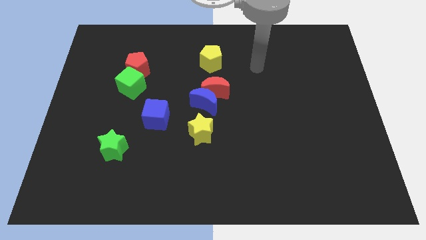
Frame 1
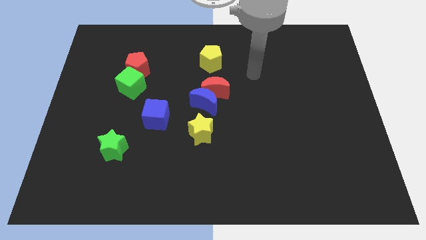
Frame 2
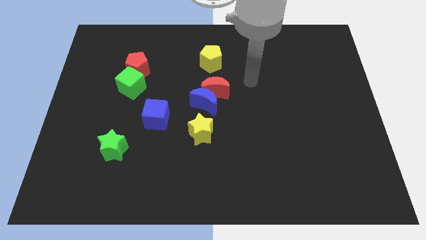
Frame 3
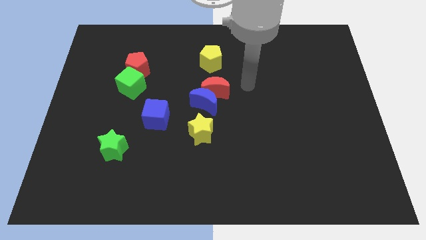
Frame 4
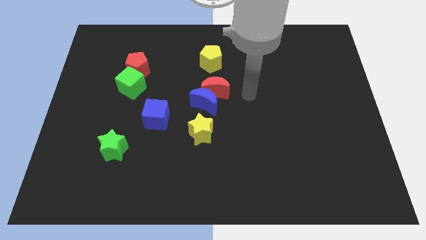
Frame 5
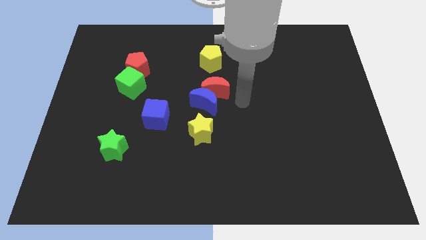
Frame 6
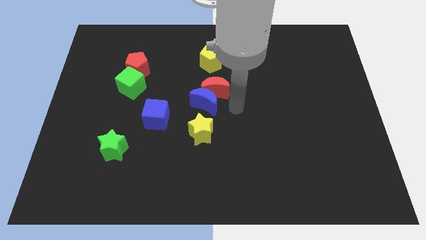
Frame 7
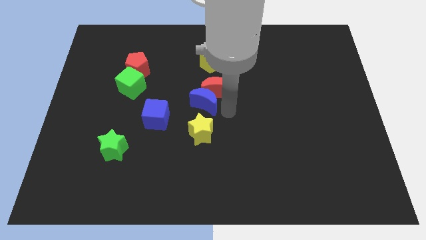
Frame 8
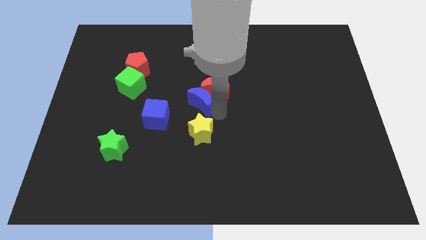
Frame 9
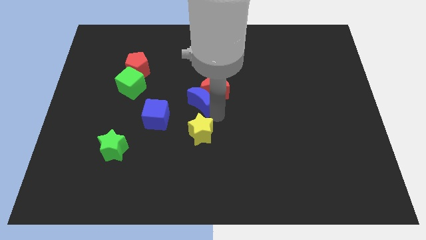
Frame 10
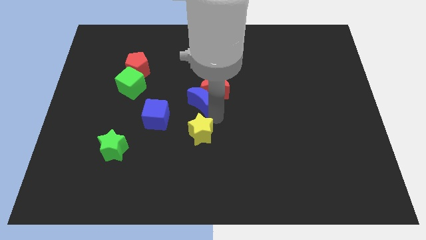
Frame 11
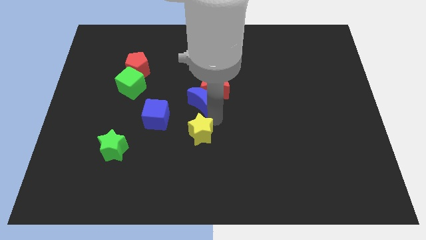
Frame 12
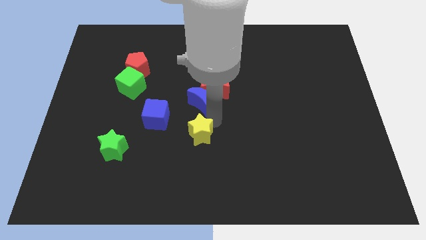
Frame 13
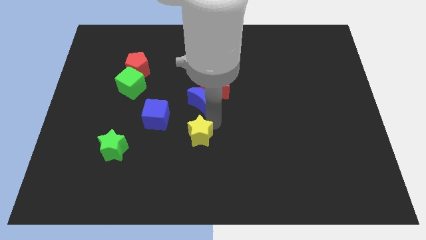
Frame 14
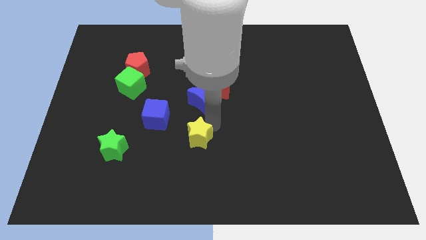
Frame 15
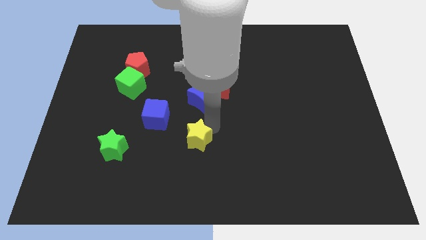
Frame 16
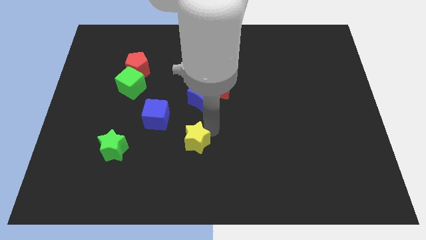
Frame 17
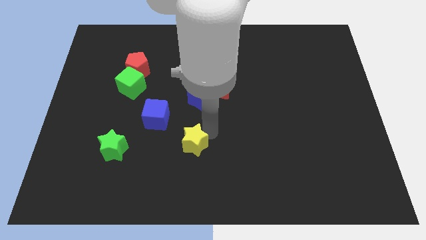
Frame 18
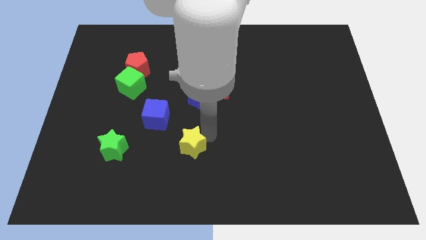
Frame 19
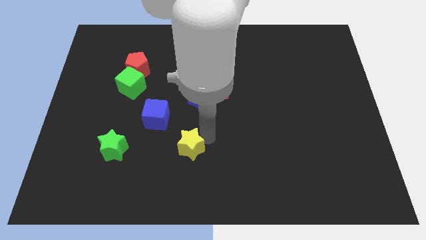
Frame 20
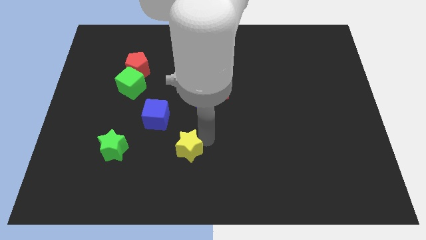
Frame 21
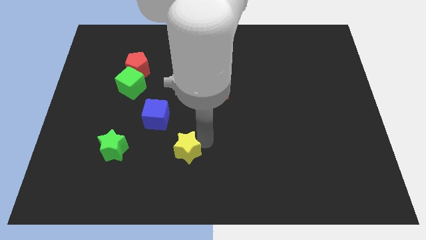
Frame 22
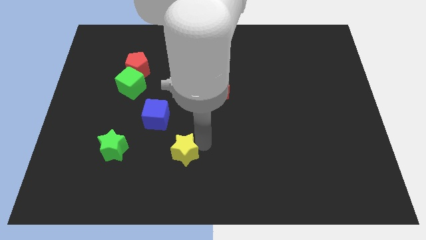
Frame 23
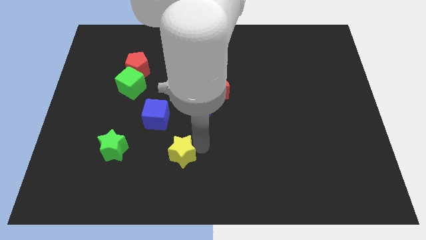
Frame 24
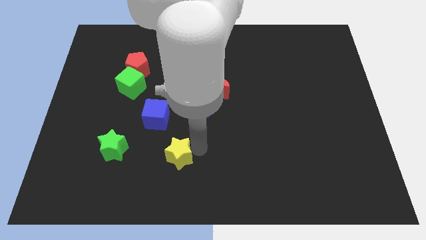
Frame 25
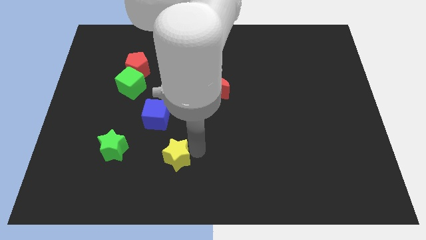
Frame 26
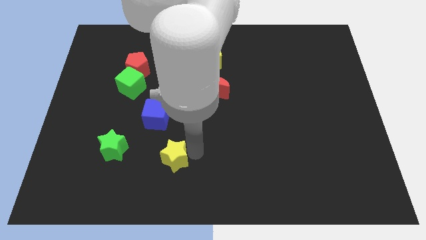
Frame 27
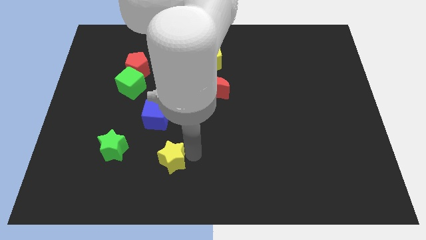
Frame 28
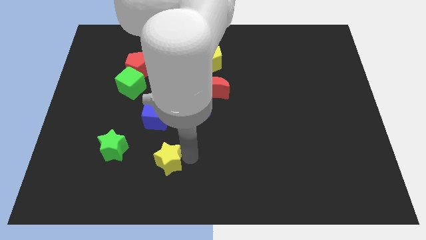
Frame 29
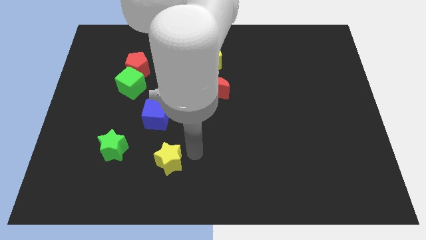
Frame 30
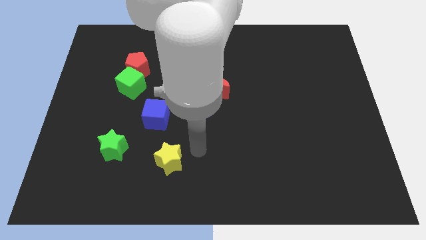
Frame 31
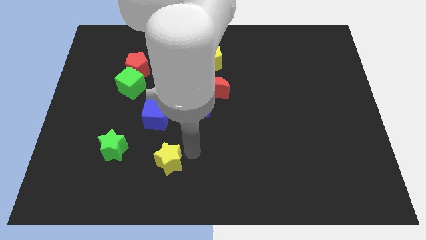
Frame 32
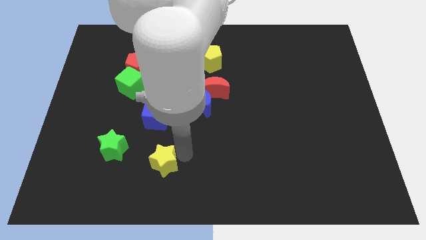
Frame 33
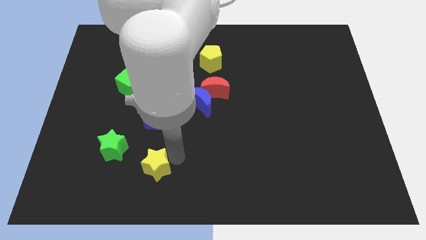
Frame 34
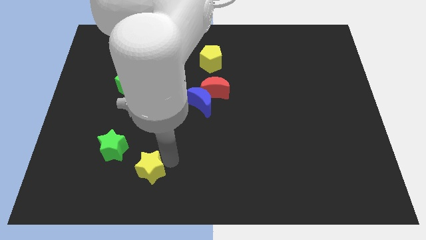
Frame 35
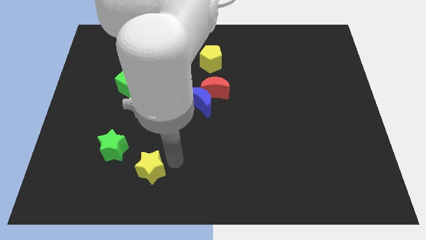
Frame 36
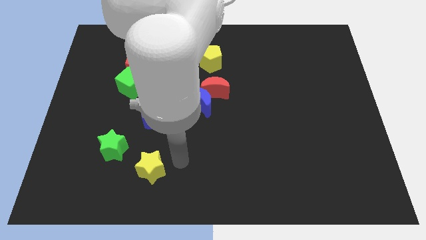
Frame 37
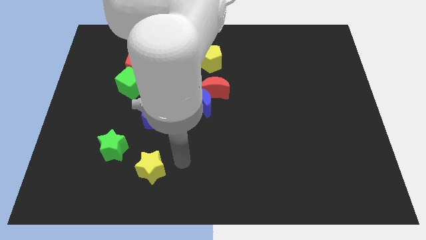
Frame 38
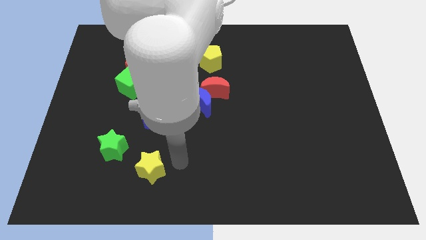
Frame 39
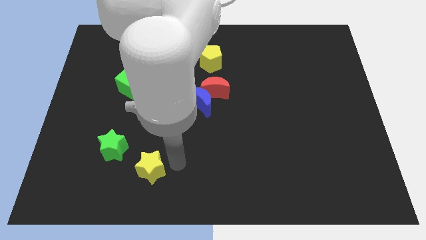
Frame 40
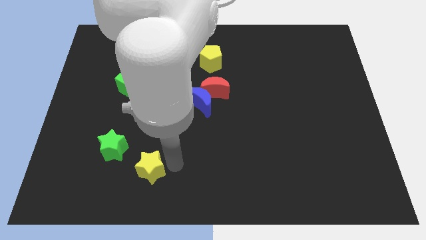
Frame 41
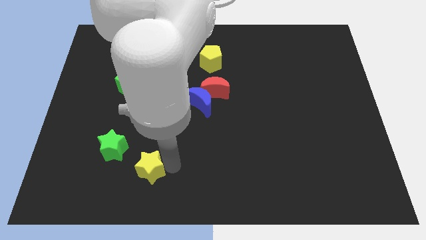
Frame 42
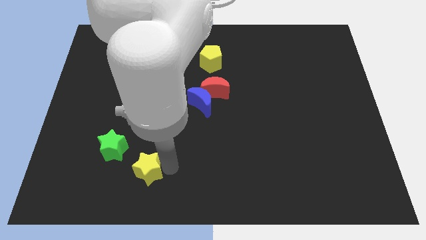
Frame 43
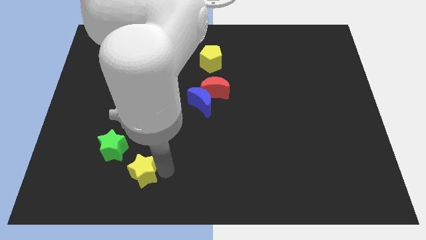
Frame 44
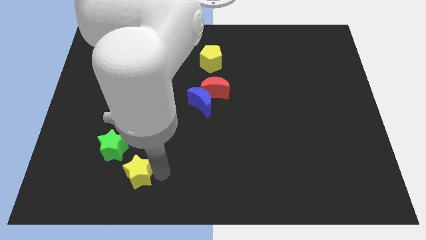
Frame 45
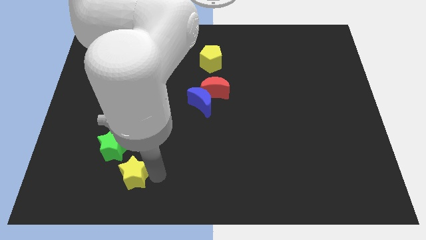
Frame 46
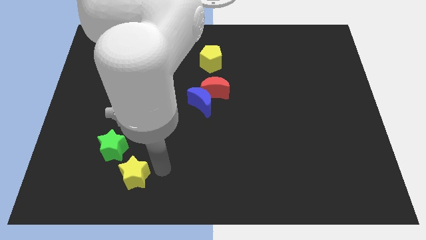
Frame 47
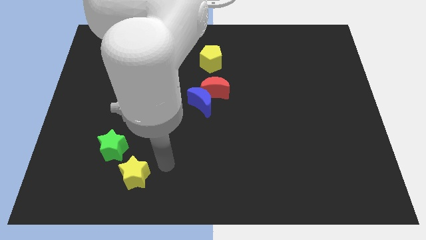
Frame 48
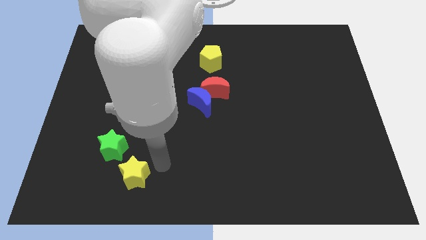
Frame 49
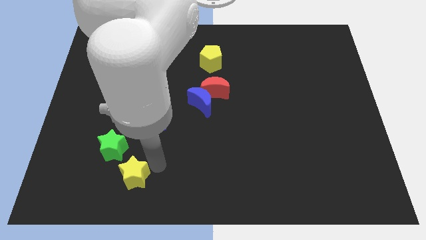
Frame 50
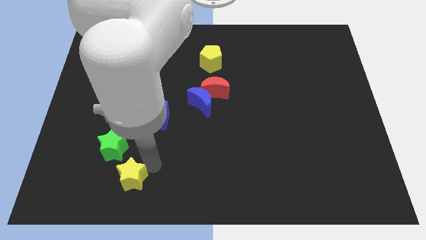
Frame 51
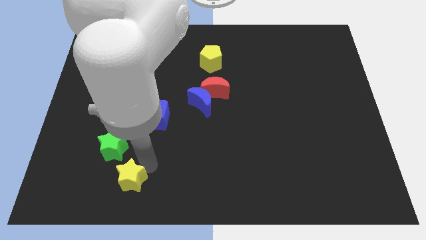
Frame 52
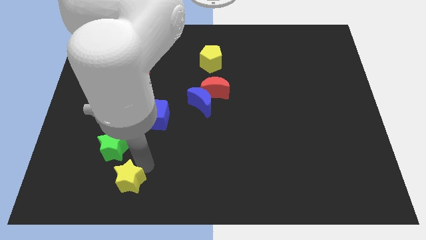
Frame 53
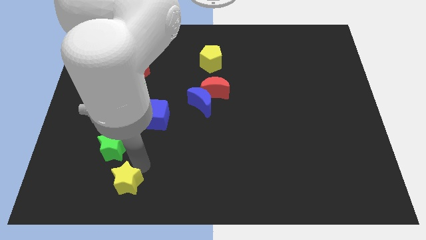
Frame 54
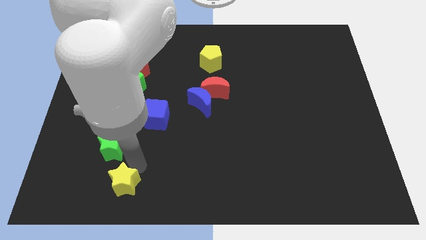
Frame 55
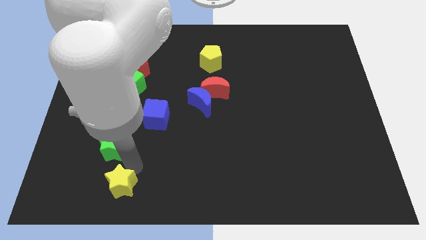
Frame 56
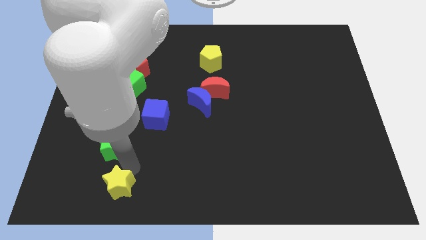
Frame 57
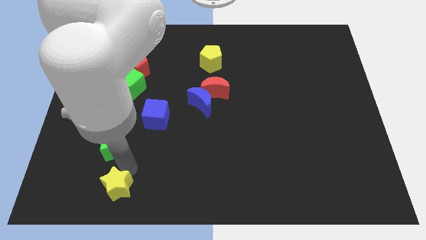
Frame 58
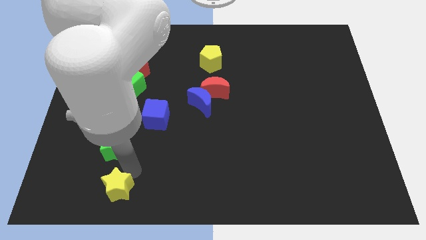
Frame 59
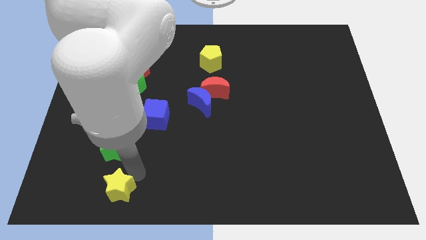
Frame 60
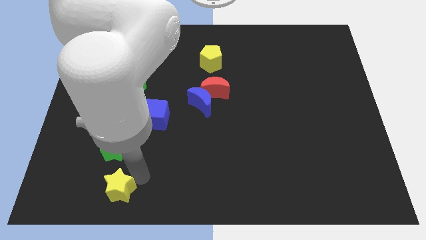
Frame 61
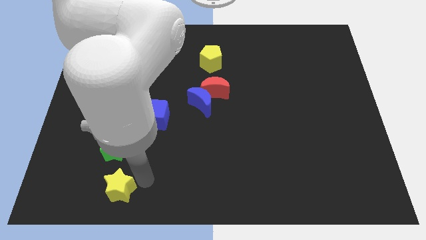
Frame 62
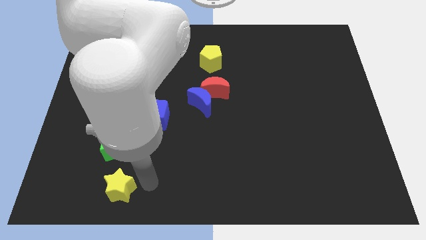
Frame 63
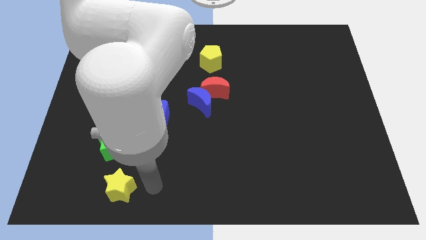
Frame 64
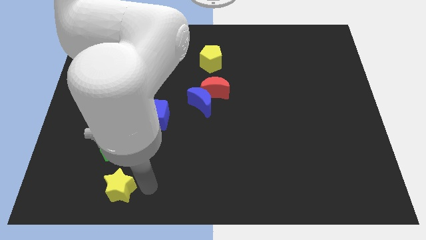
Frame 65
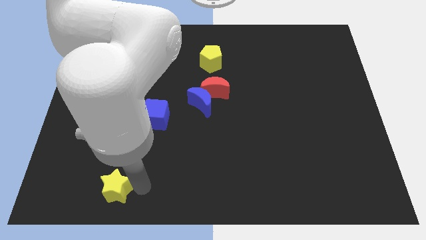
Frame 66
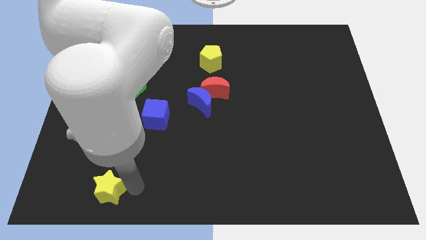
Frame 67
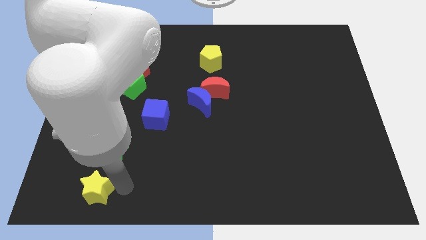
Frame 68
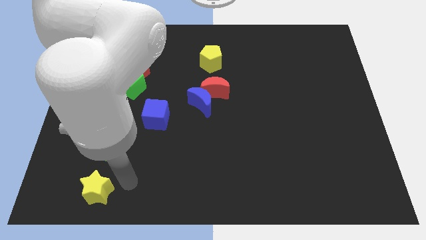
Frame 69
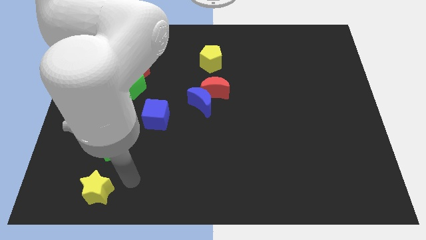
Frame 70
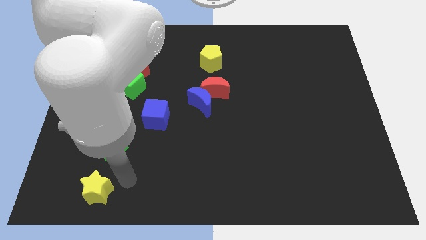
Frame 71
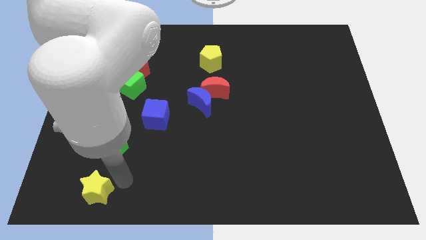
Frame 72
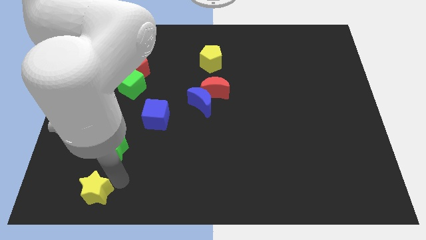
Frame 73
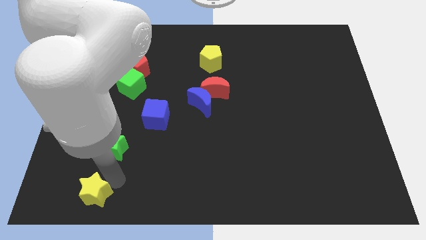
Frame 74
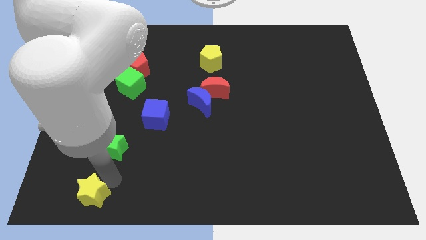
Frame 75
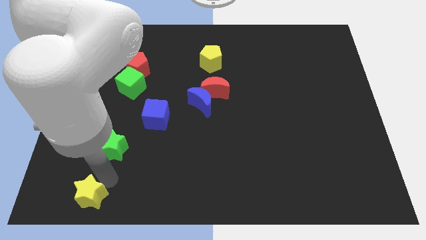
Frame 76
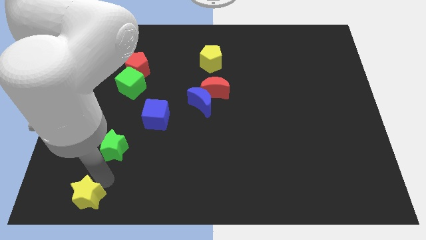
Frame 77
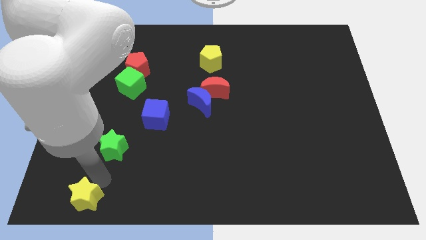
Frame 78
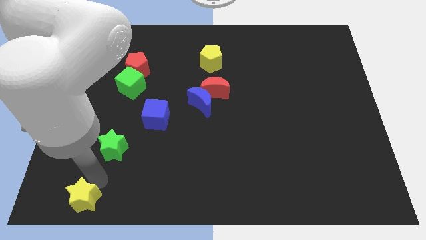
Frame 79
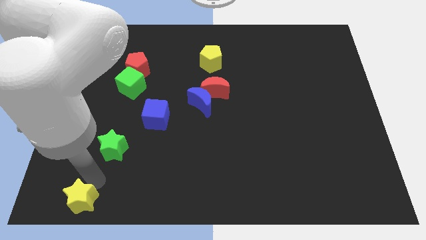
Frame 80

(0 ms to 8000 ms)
move the yellow star to the bottom left corner
